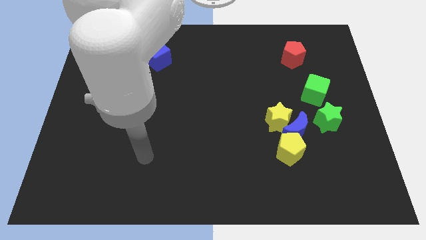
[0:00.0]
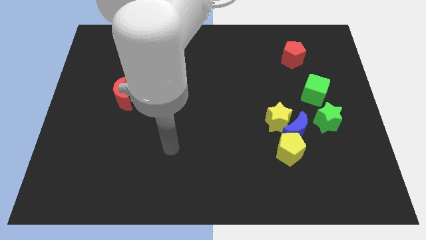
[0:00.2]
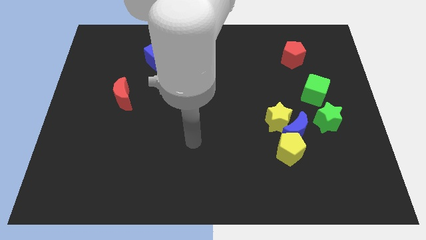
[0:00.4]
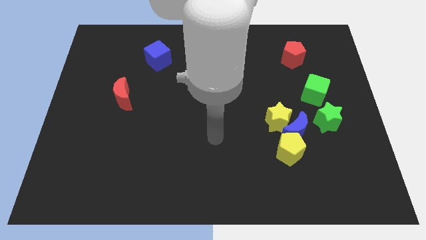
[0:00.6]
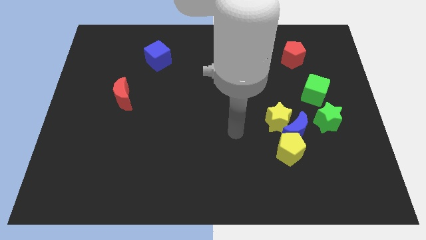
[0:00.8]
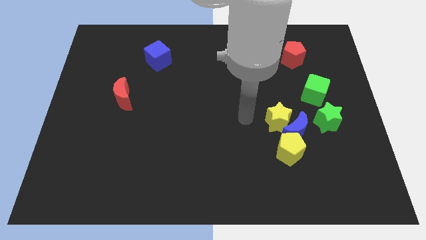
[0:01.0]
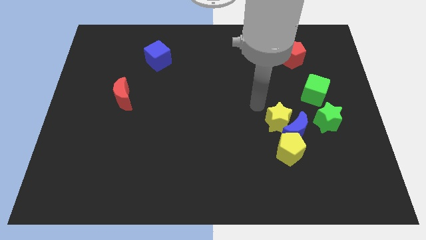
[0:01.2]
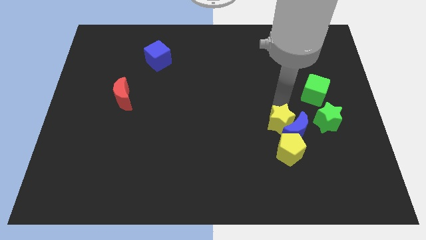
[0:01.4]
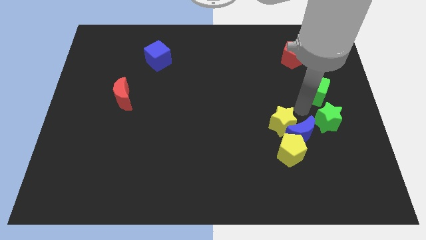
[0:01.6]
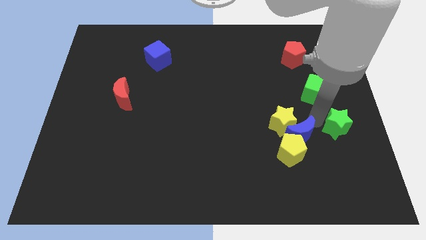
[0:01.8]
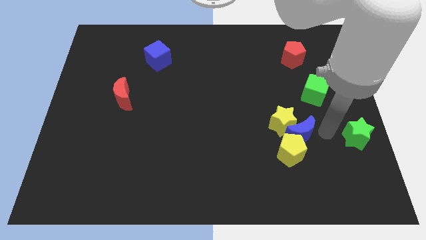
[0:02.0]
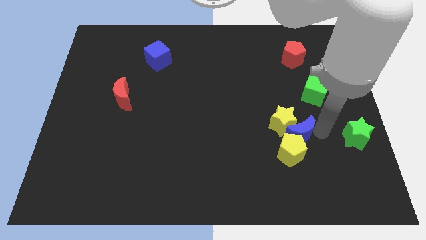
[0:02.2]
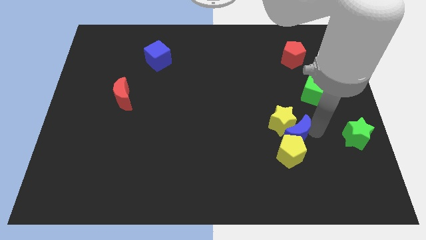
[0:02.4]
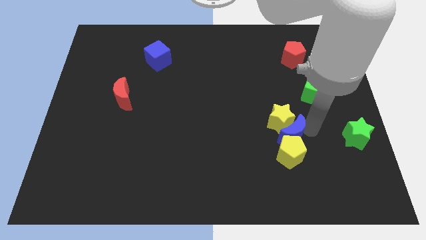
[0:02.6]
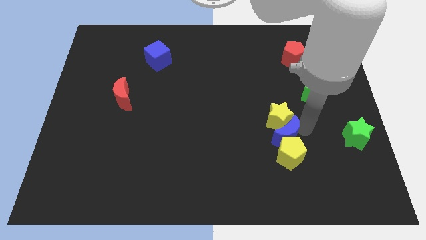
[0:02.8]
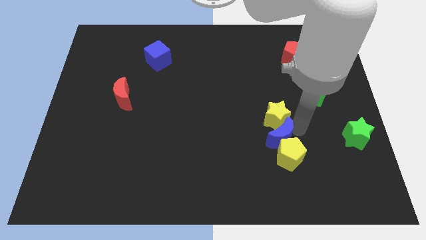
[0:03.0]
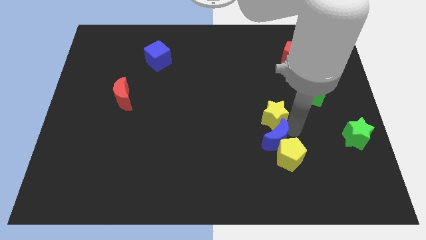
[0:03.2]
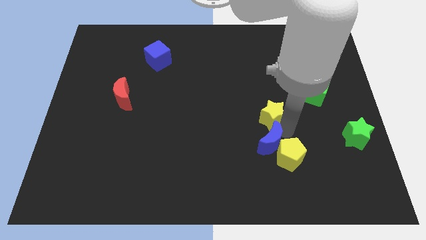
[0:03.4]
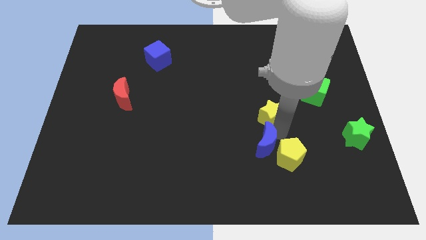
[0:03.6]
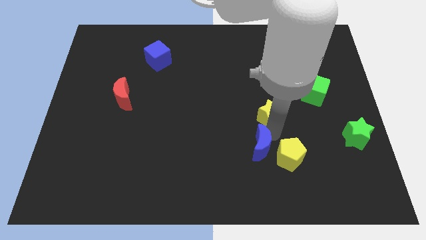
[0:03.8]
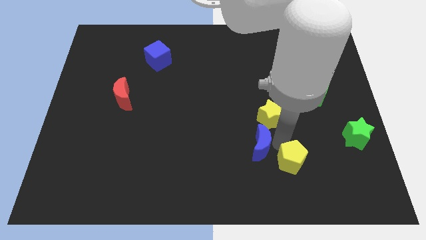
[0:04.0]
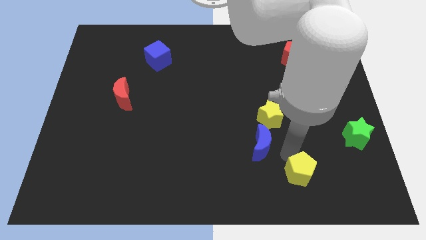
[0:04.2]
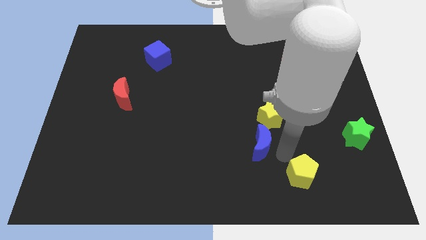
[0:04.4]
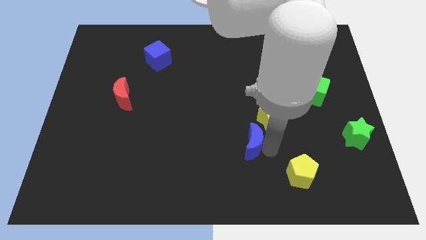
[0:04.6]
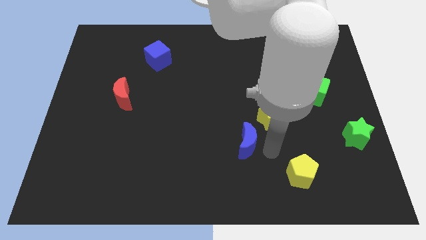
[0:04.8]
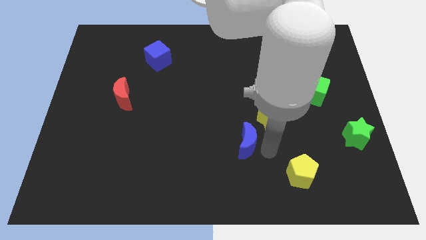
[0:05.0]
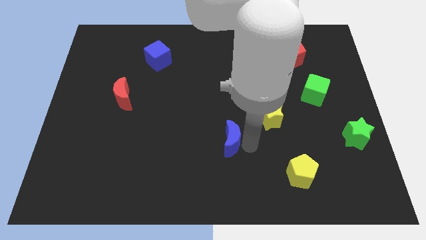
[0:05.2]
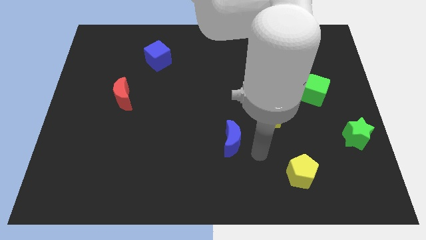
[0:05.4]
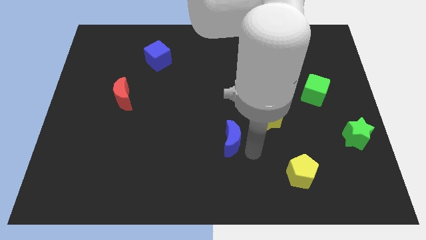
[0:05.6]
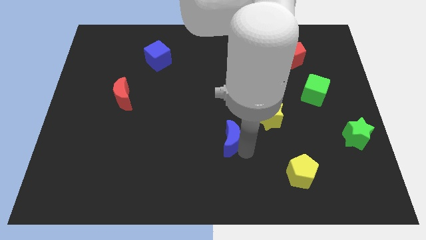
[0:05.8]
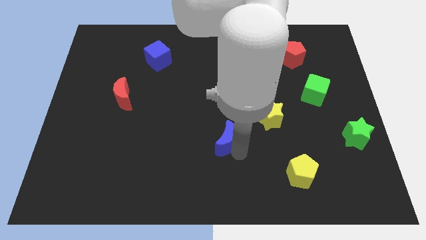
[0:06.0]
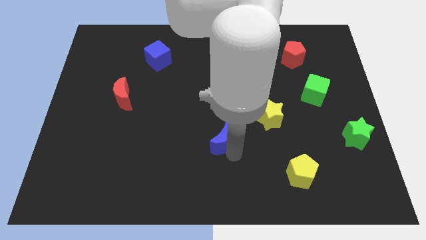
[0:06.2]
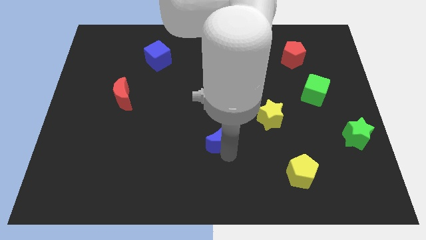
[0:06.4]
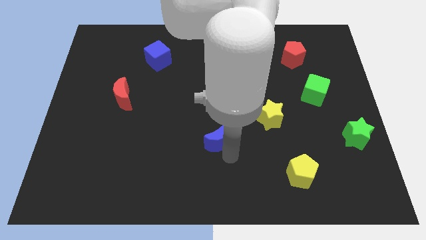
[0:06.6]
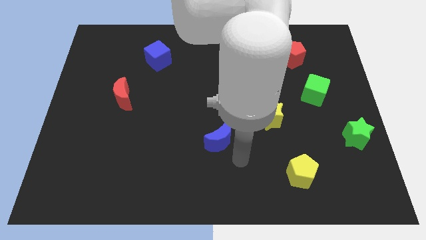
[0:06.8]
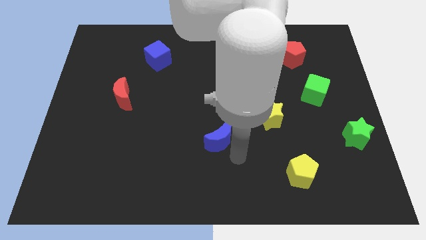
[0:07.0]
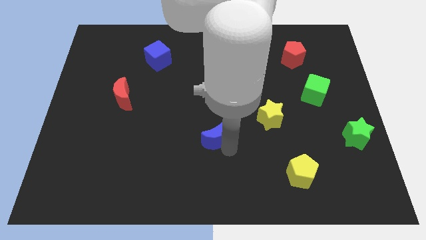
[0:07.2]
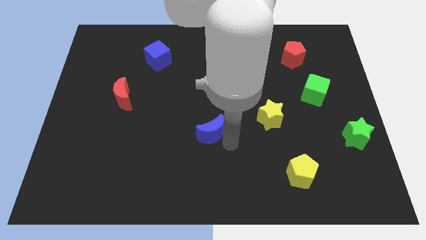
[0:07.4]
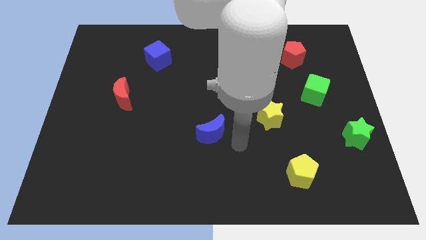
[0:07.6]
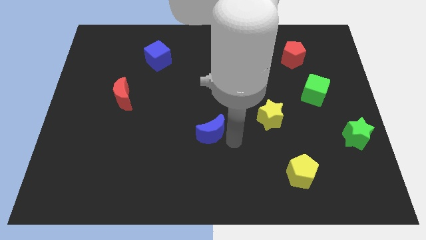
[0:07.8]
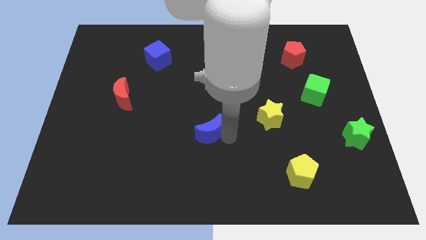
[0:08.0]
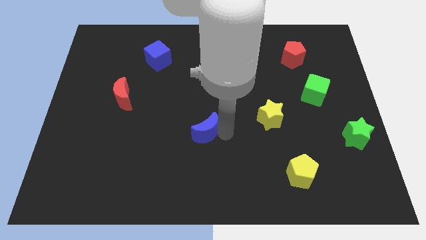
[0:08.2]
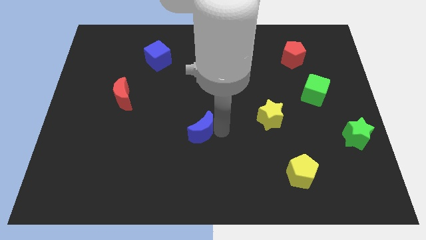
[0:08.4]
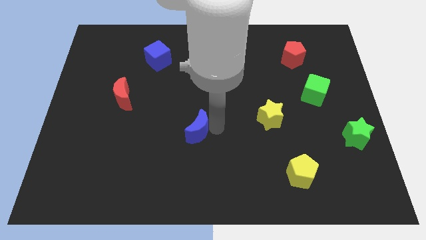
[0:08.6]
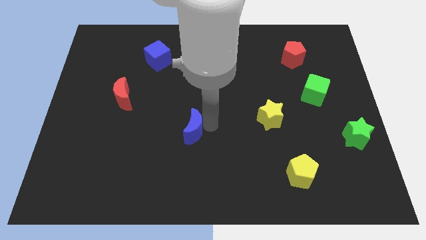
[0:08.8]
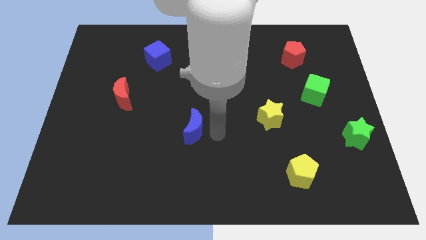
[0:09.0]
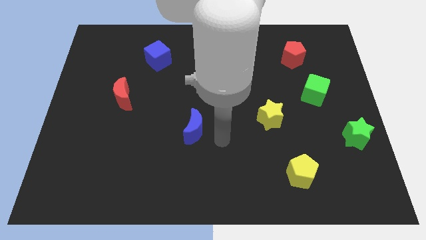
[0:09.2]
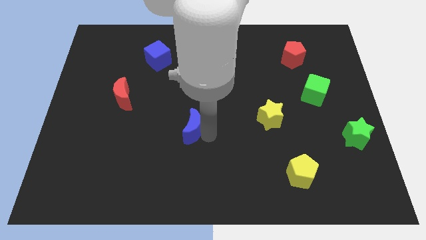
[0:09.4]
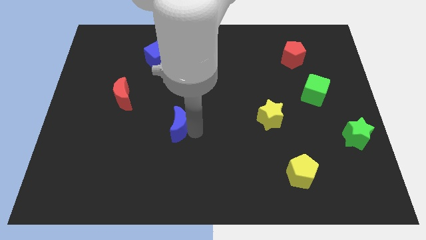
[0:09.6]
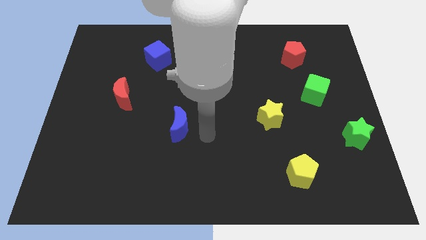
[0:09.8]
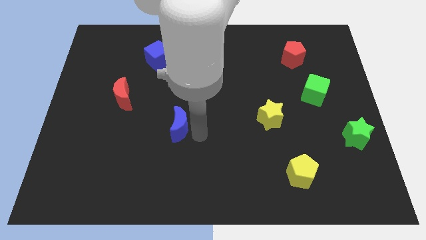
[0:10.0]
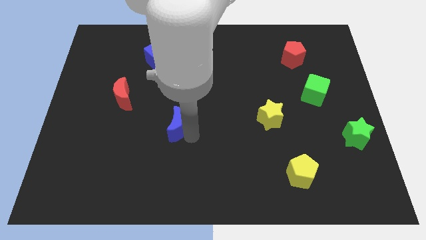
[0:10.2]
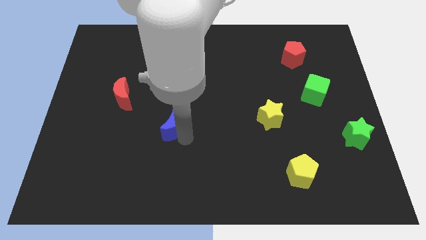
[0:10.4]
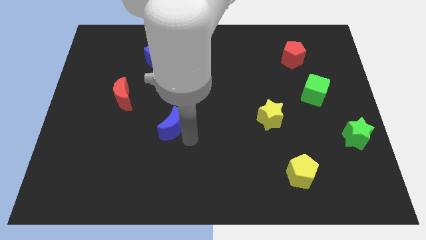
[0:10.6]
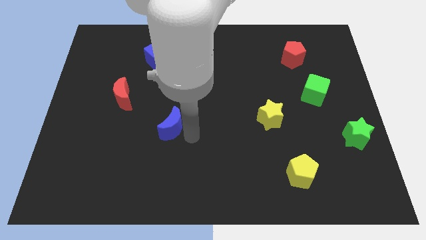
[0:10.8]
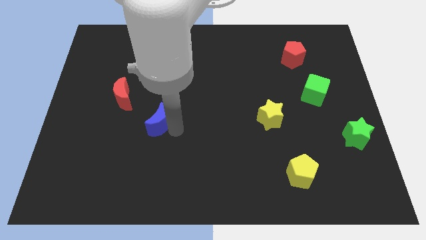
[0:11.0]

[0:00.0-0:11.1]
move the blue moon diagonally down and to the right of the red moon

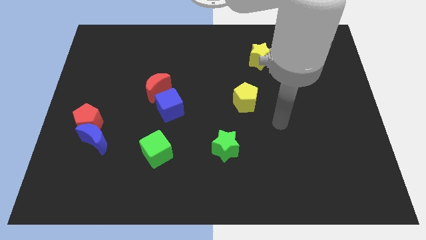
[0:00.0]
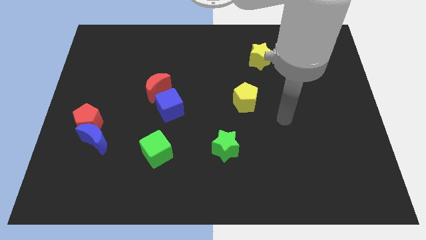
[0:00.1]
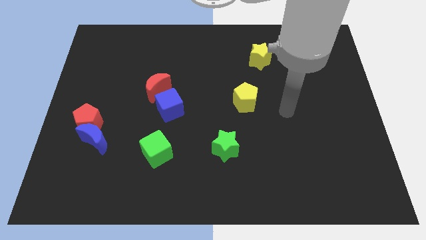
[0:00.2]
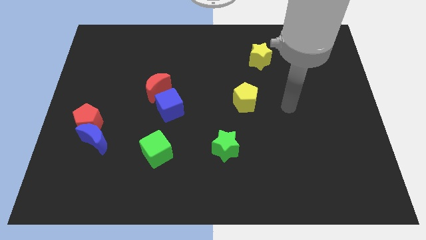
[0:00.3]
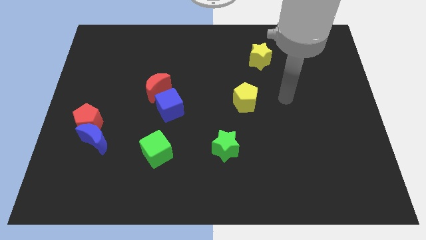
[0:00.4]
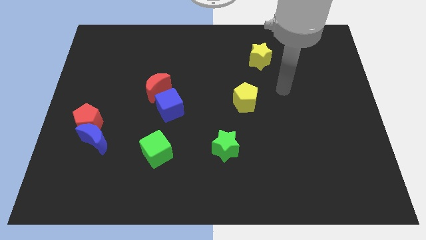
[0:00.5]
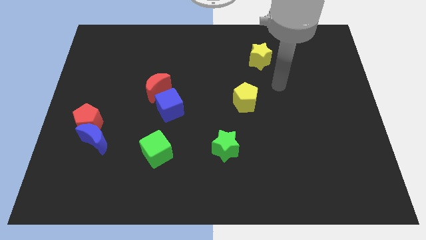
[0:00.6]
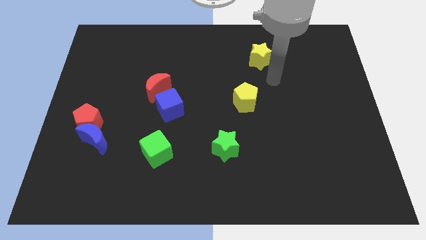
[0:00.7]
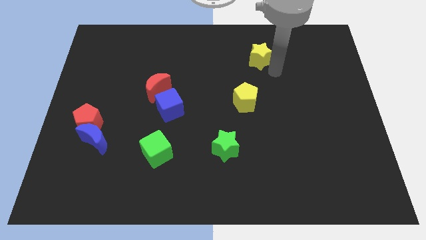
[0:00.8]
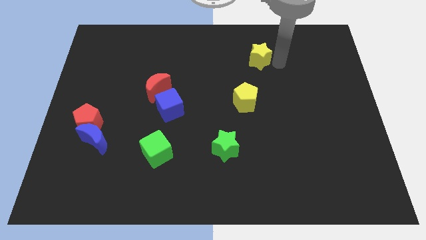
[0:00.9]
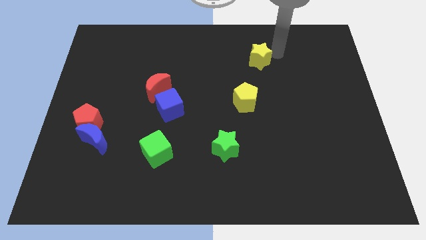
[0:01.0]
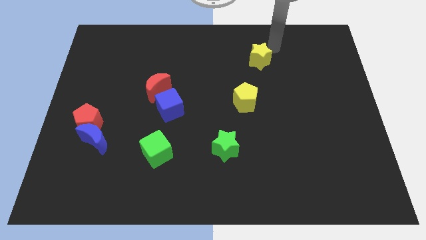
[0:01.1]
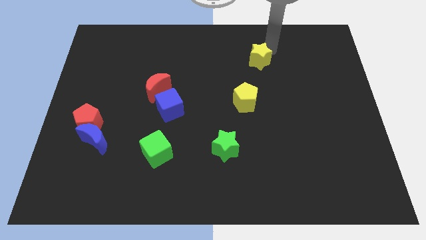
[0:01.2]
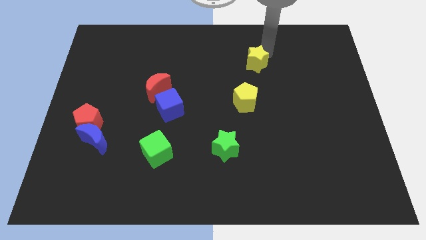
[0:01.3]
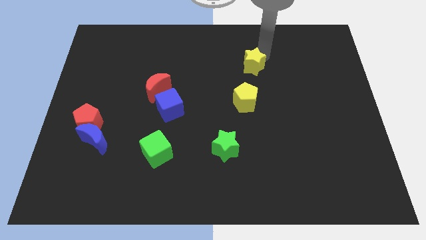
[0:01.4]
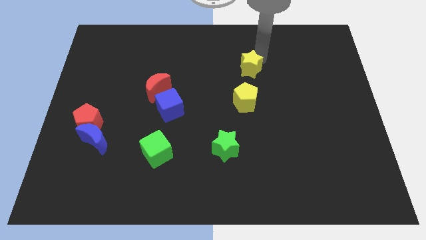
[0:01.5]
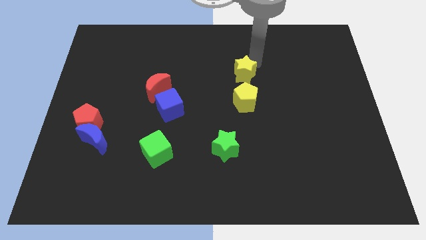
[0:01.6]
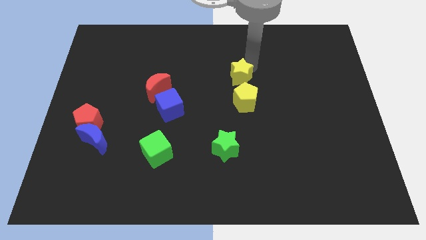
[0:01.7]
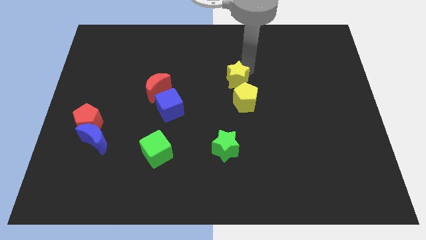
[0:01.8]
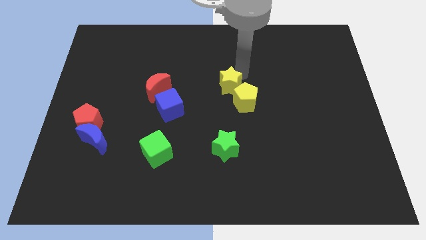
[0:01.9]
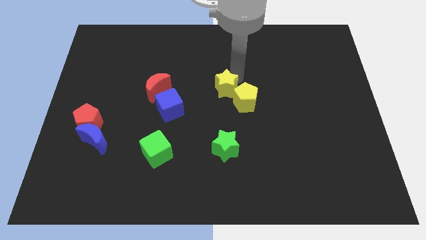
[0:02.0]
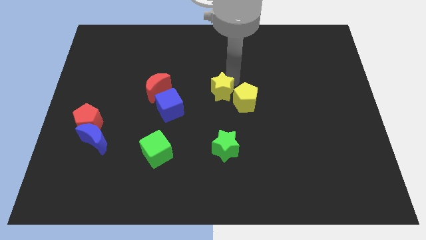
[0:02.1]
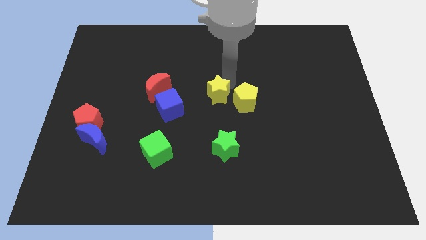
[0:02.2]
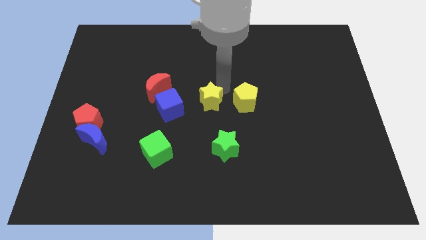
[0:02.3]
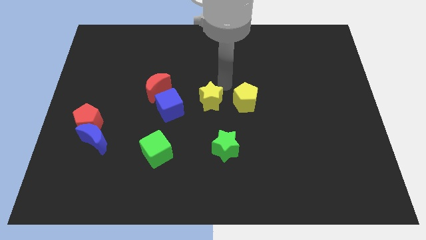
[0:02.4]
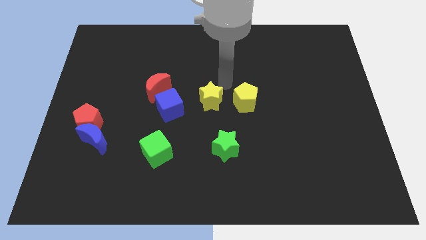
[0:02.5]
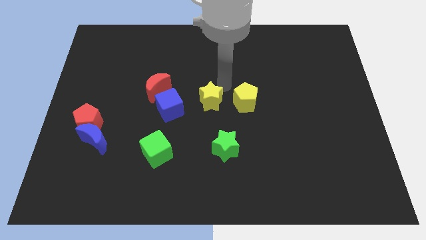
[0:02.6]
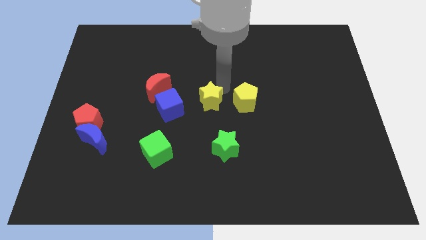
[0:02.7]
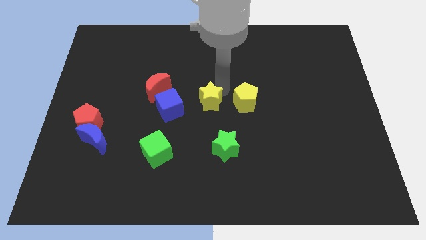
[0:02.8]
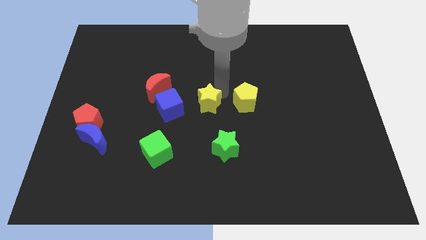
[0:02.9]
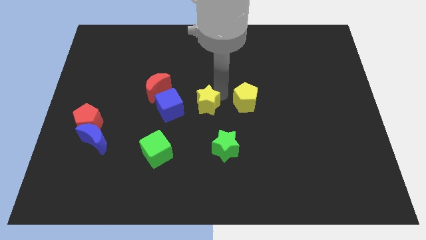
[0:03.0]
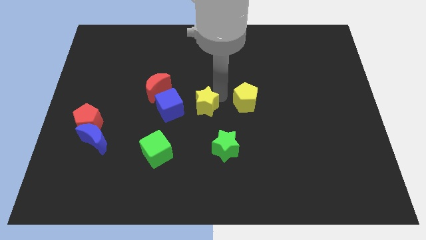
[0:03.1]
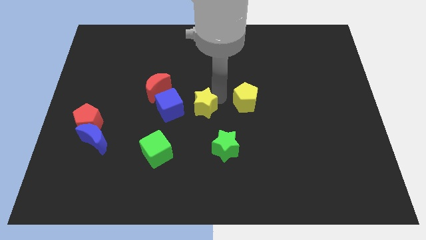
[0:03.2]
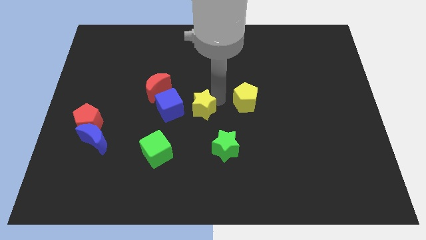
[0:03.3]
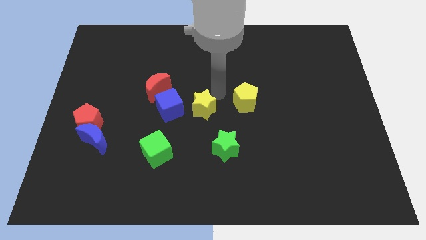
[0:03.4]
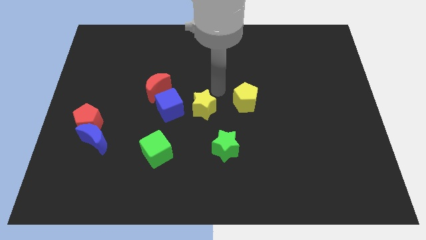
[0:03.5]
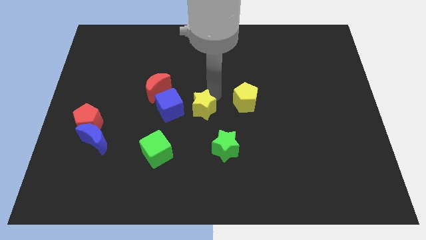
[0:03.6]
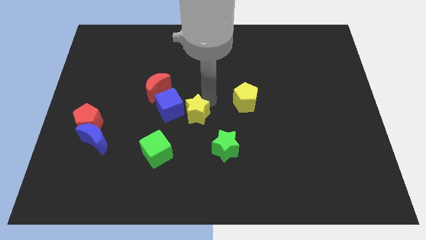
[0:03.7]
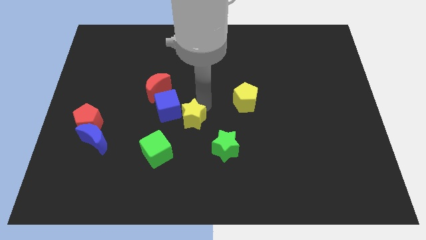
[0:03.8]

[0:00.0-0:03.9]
slide the yellow star to the top right side of the green cube
